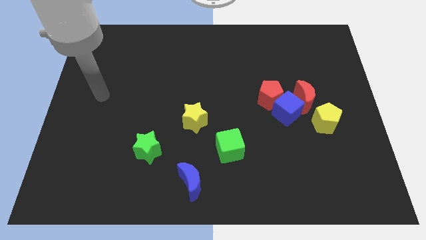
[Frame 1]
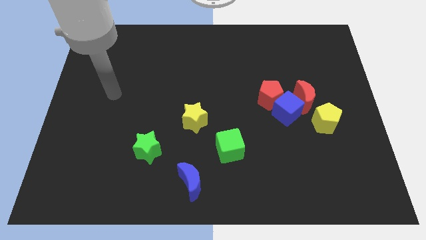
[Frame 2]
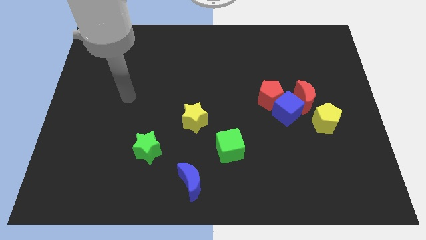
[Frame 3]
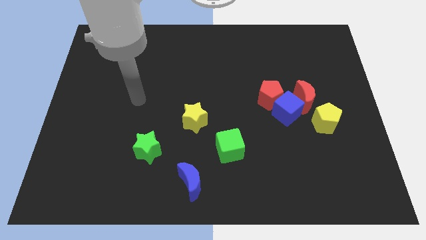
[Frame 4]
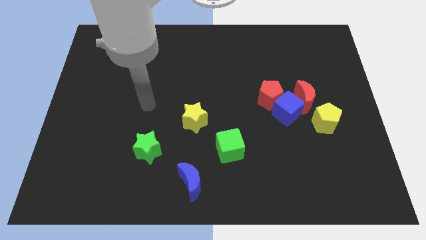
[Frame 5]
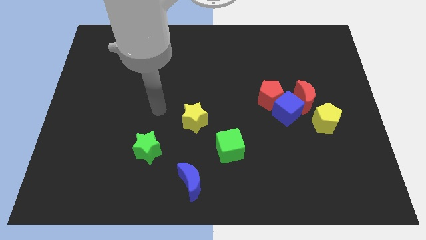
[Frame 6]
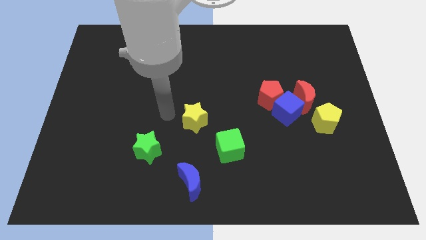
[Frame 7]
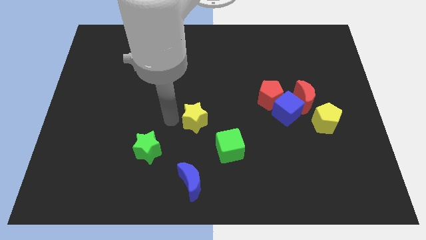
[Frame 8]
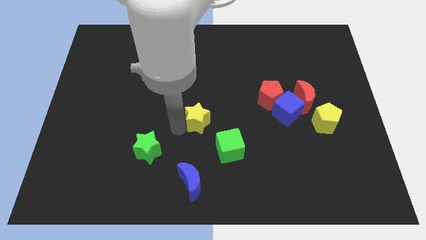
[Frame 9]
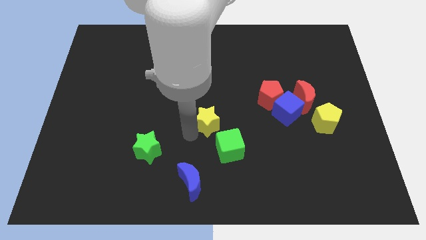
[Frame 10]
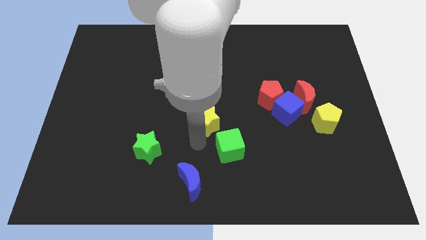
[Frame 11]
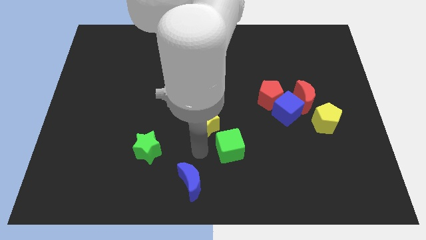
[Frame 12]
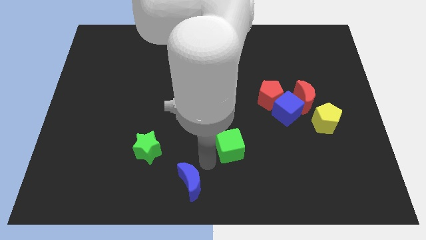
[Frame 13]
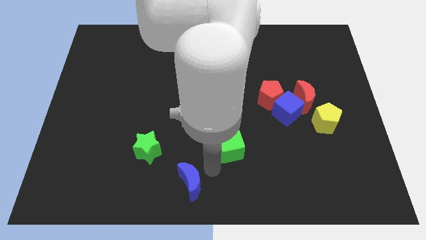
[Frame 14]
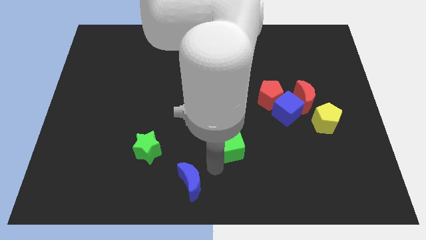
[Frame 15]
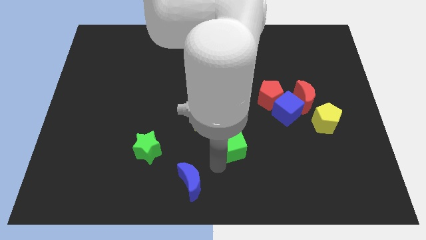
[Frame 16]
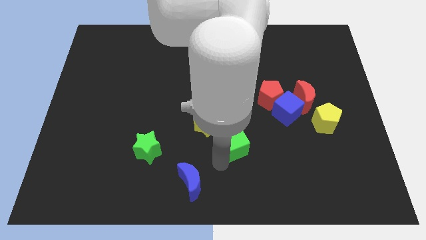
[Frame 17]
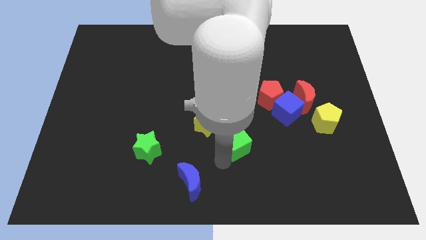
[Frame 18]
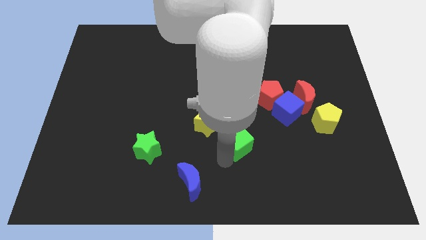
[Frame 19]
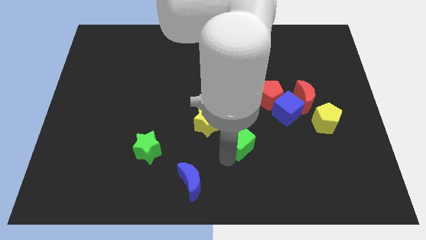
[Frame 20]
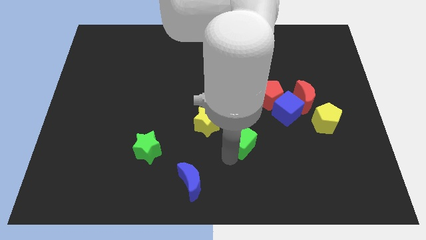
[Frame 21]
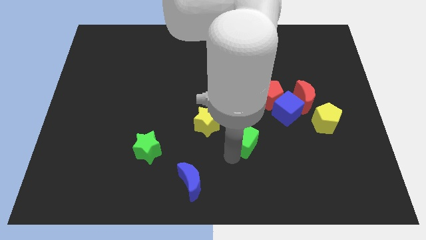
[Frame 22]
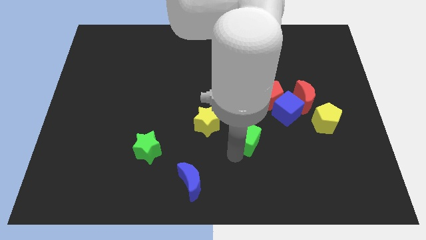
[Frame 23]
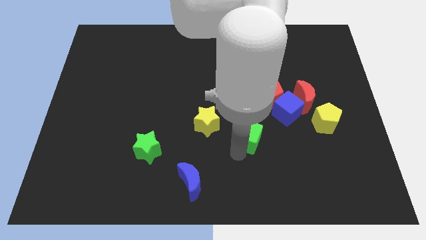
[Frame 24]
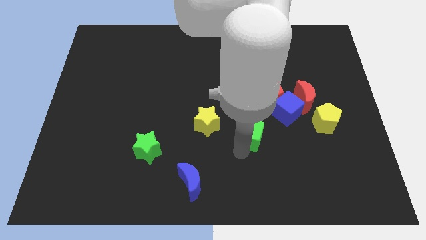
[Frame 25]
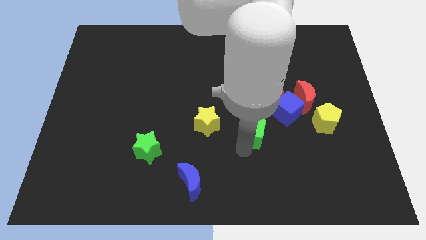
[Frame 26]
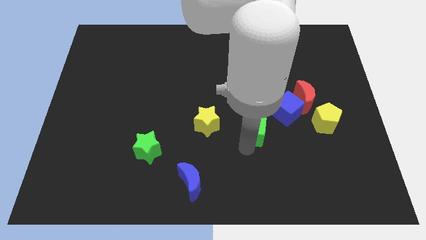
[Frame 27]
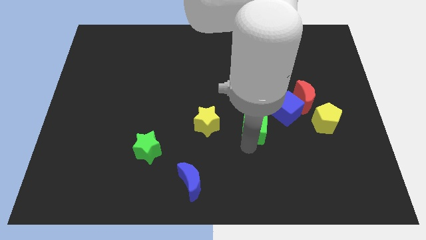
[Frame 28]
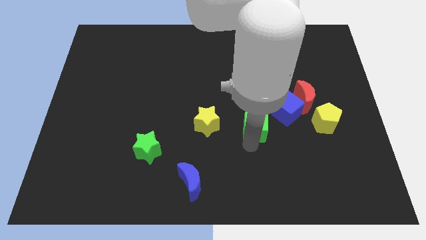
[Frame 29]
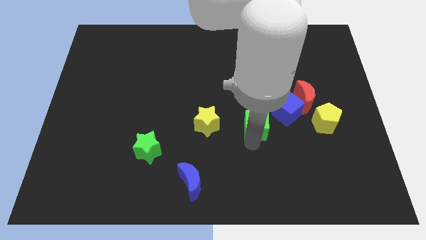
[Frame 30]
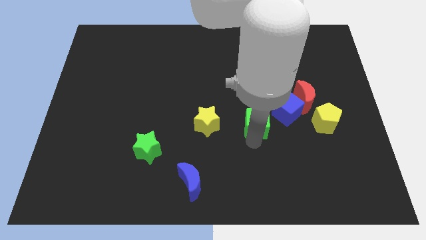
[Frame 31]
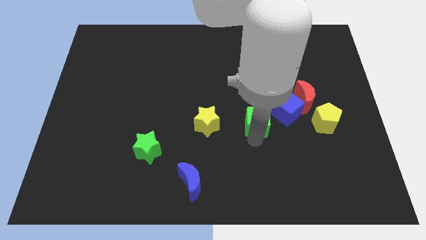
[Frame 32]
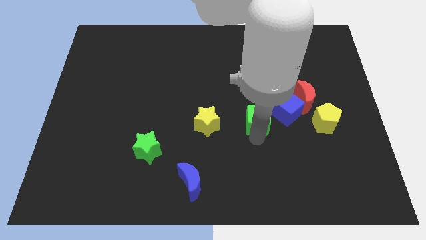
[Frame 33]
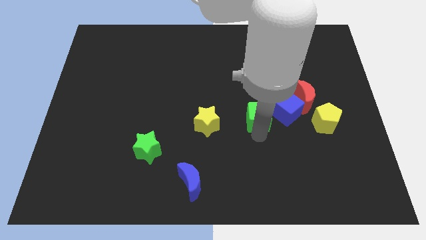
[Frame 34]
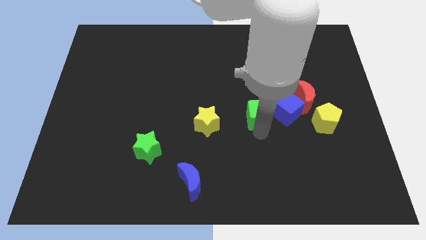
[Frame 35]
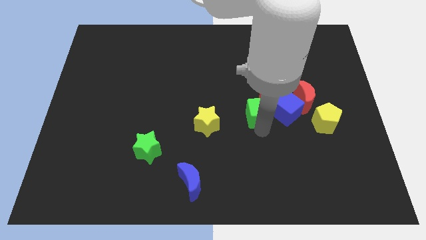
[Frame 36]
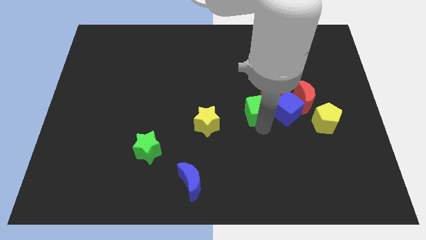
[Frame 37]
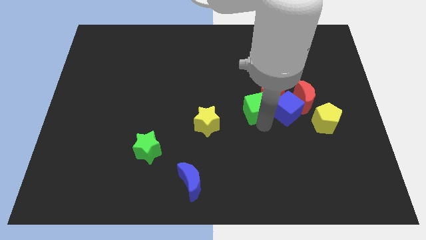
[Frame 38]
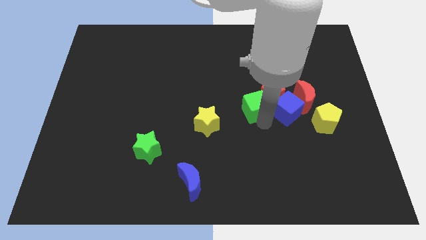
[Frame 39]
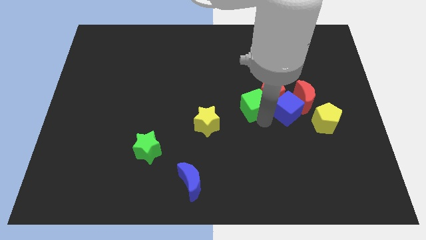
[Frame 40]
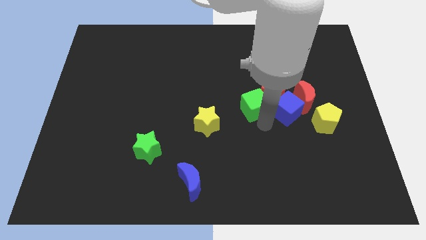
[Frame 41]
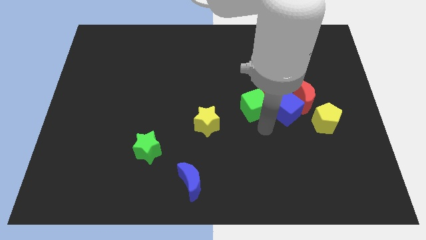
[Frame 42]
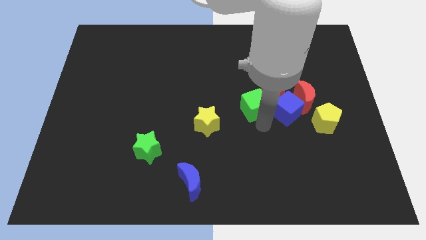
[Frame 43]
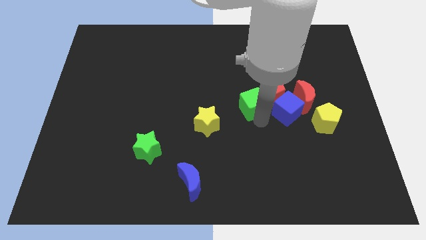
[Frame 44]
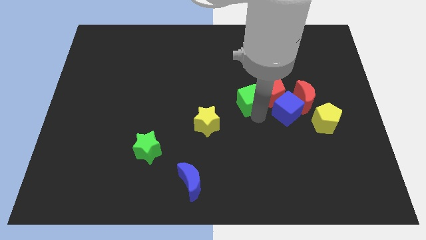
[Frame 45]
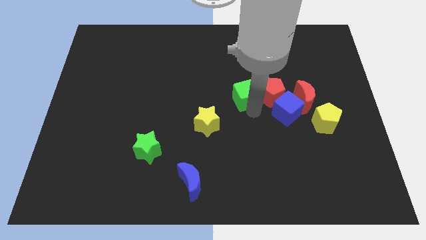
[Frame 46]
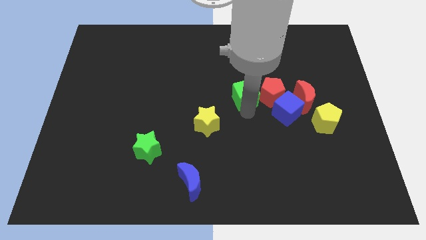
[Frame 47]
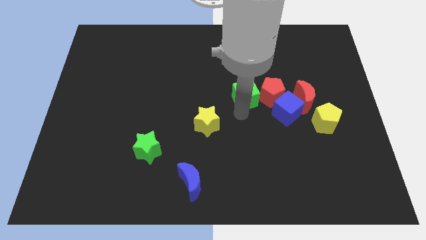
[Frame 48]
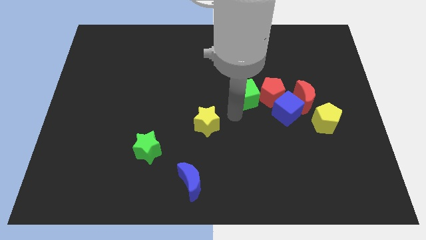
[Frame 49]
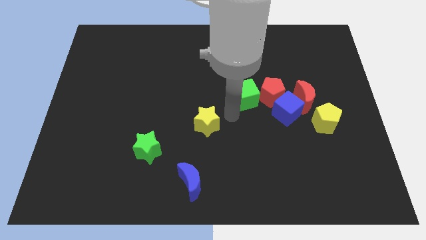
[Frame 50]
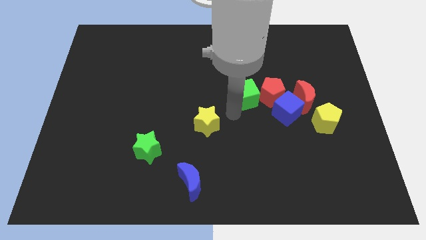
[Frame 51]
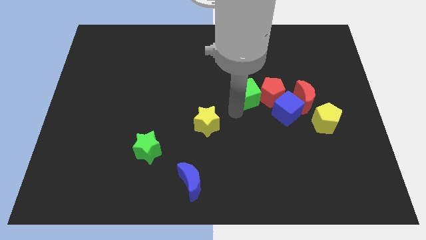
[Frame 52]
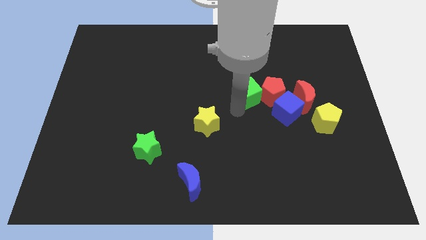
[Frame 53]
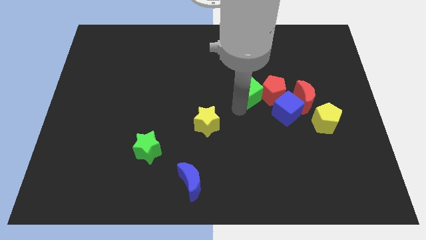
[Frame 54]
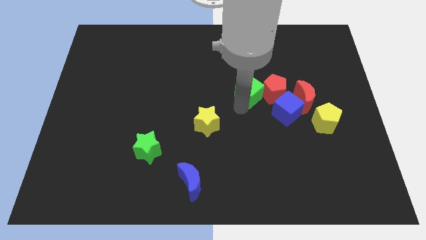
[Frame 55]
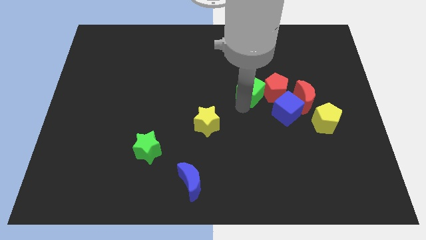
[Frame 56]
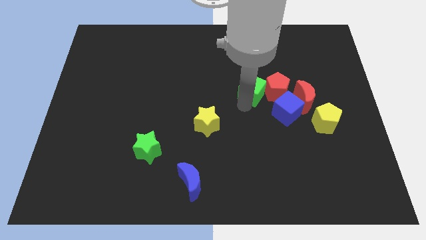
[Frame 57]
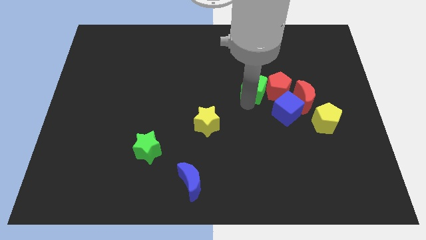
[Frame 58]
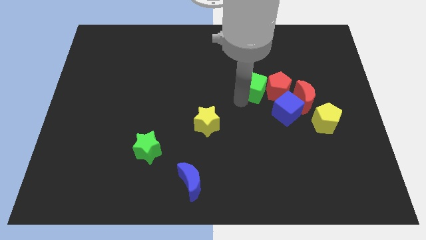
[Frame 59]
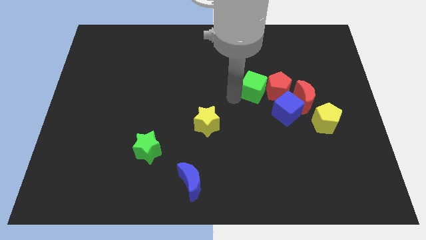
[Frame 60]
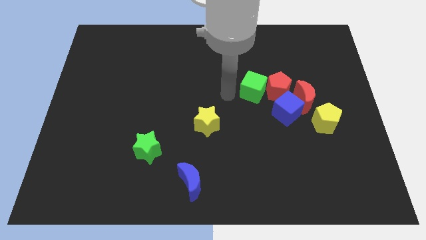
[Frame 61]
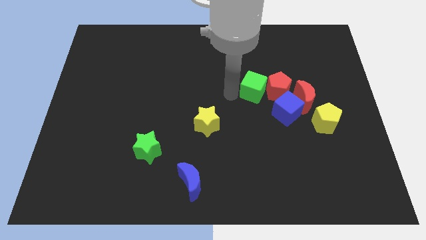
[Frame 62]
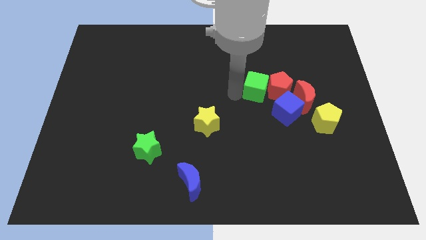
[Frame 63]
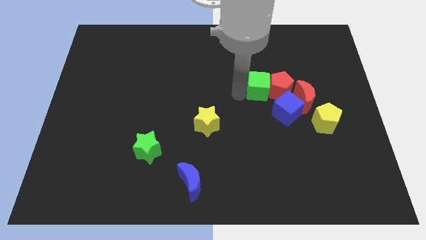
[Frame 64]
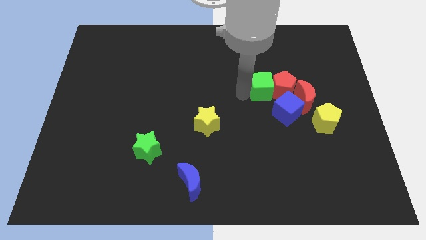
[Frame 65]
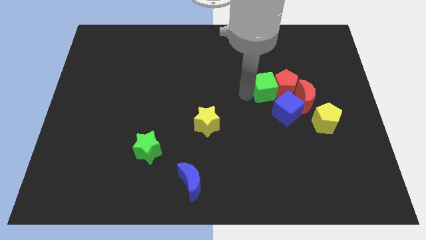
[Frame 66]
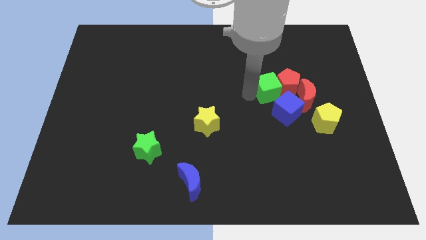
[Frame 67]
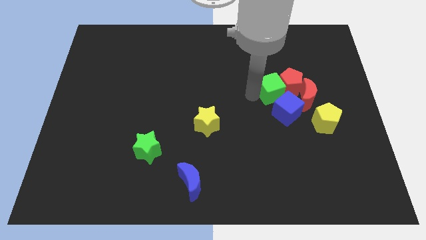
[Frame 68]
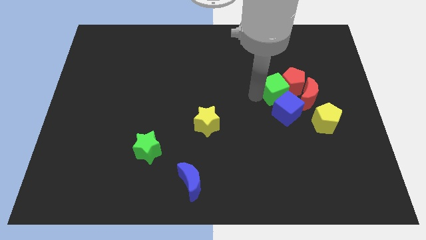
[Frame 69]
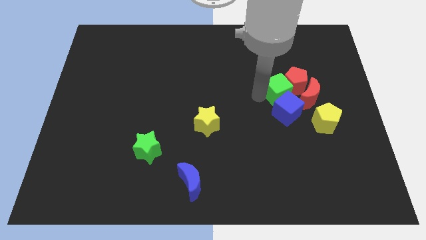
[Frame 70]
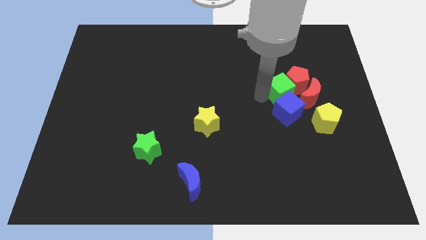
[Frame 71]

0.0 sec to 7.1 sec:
put the green cube to the top right side of the blue cube
